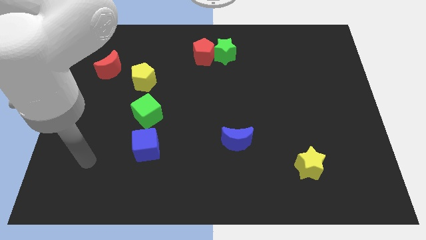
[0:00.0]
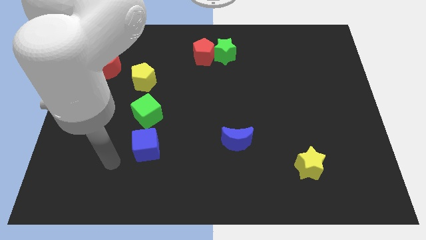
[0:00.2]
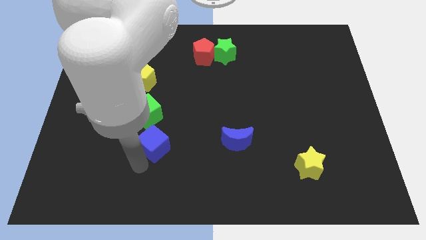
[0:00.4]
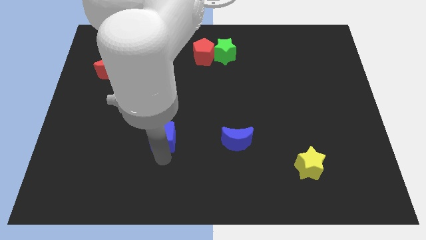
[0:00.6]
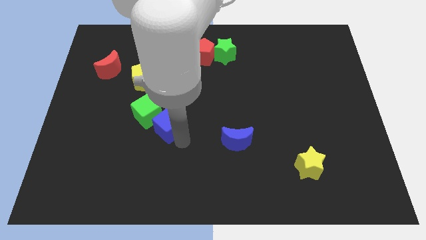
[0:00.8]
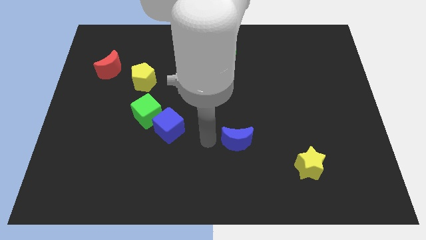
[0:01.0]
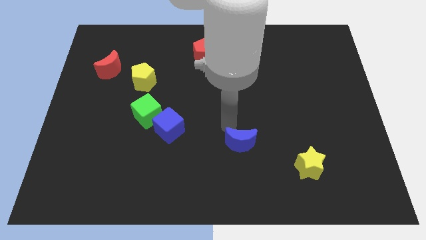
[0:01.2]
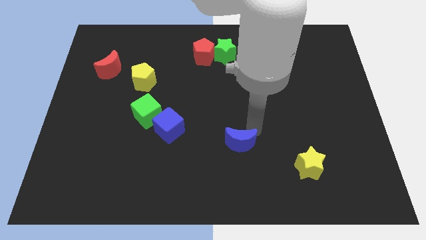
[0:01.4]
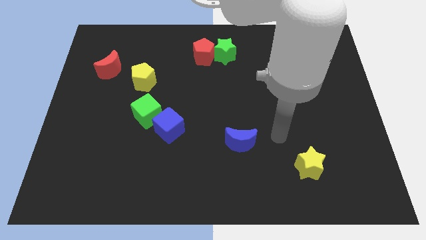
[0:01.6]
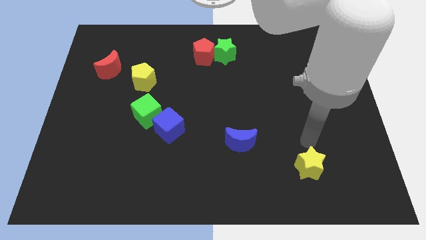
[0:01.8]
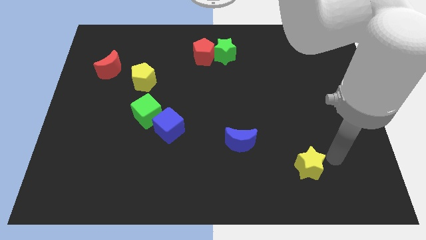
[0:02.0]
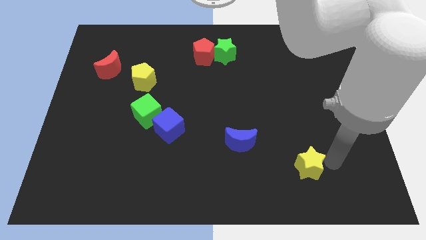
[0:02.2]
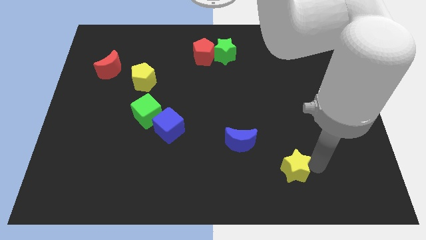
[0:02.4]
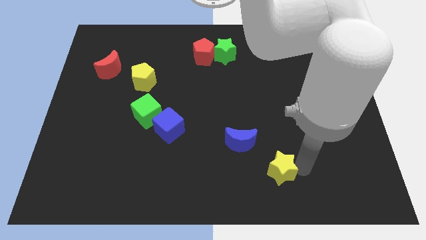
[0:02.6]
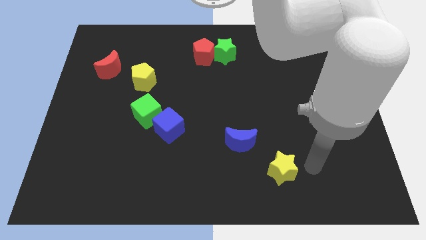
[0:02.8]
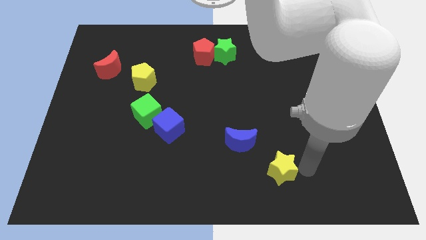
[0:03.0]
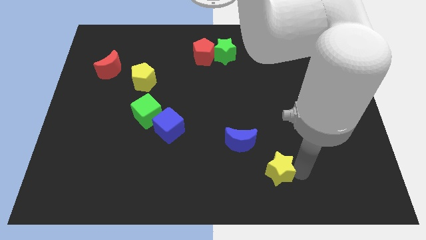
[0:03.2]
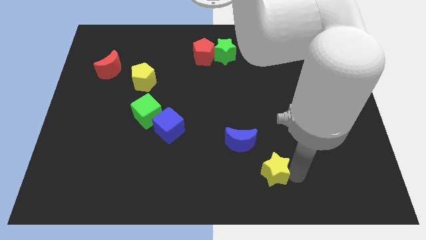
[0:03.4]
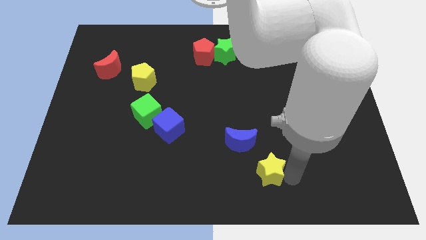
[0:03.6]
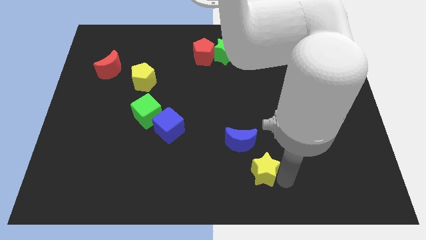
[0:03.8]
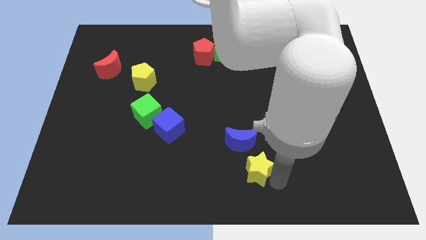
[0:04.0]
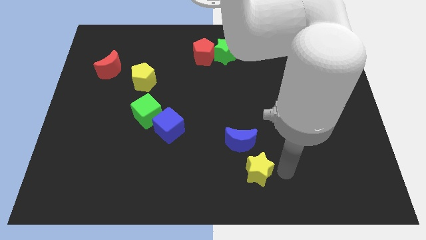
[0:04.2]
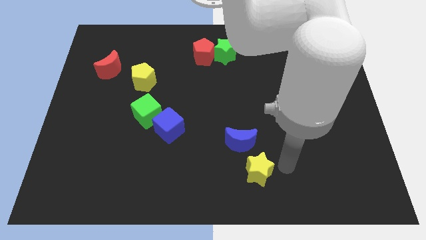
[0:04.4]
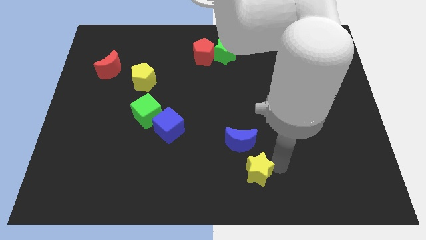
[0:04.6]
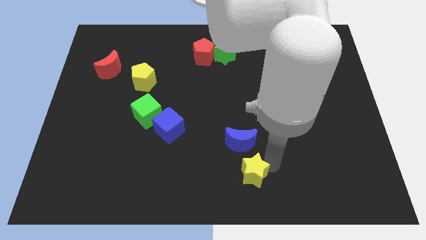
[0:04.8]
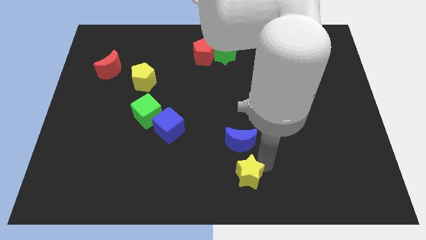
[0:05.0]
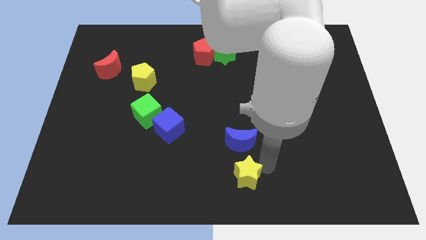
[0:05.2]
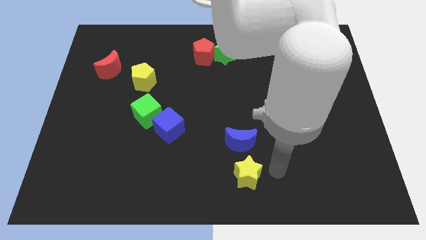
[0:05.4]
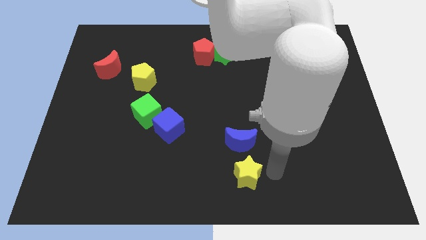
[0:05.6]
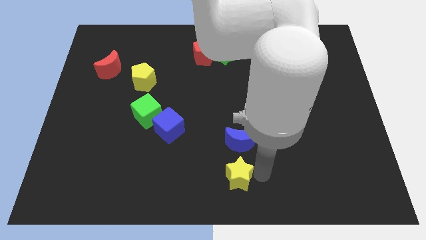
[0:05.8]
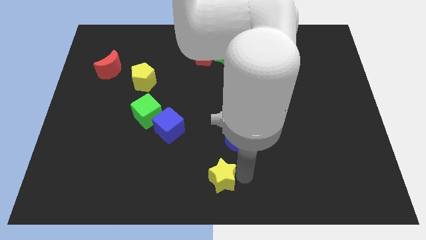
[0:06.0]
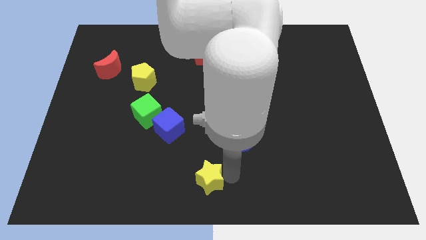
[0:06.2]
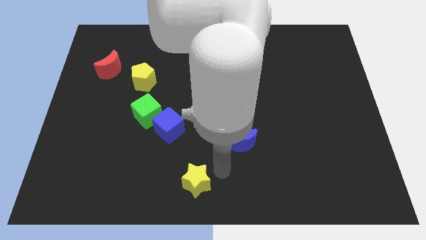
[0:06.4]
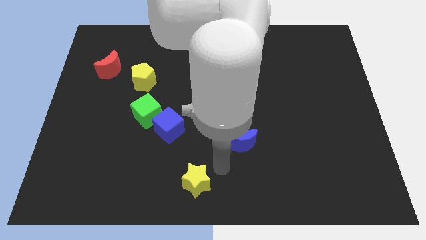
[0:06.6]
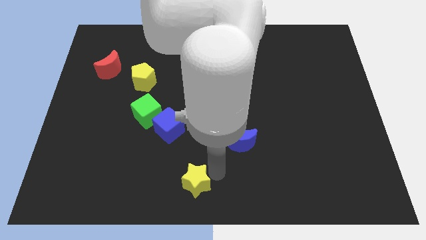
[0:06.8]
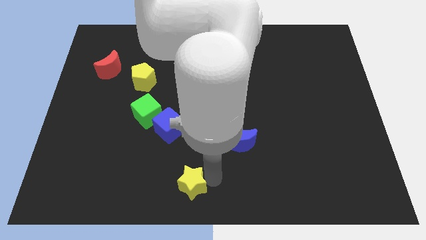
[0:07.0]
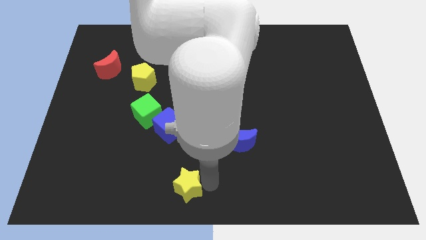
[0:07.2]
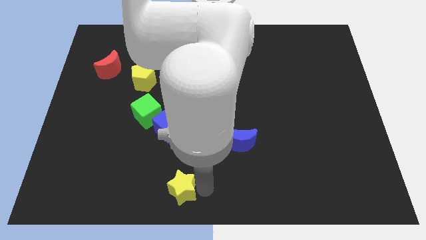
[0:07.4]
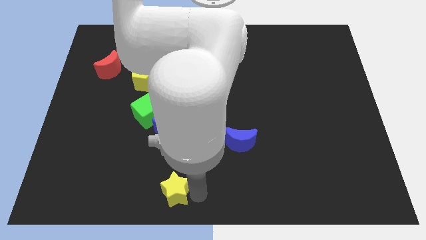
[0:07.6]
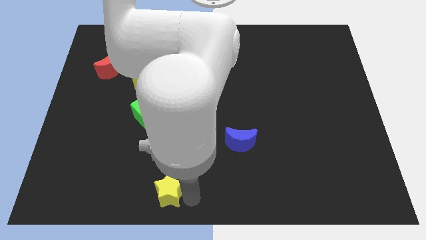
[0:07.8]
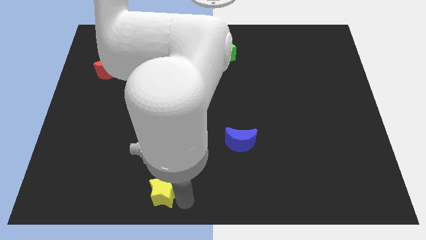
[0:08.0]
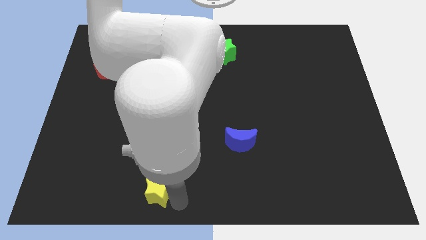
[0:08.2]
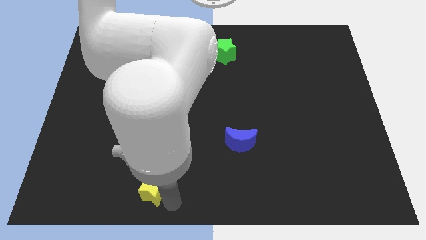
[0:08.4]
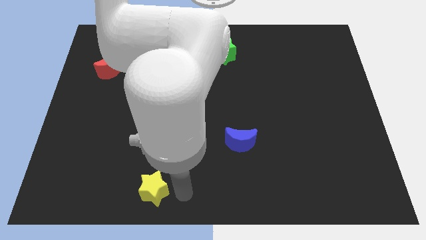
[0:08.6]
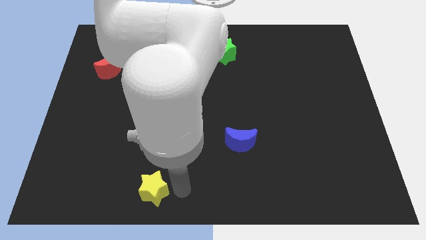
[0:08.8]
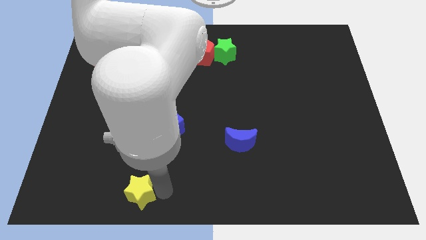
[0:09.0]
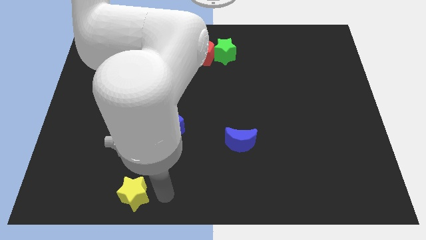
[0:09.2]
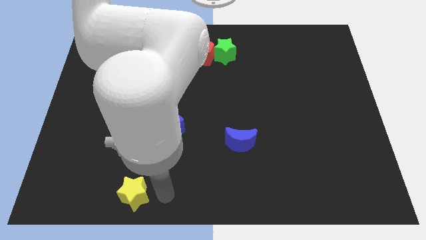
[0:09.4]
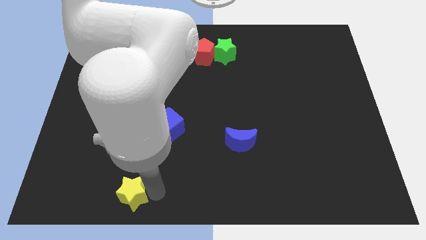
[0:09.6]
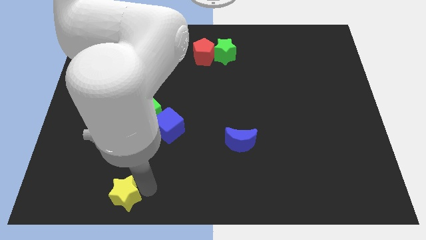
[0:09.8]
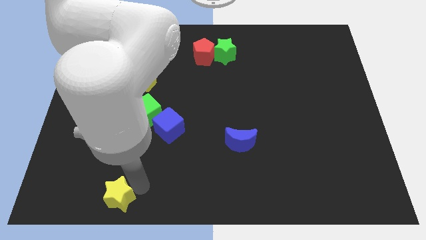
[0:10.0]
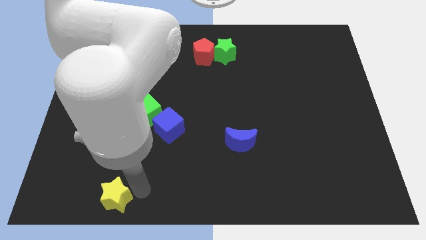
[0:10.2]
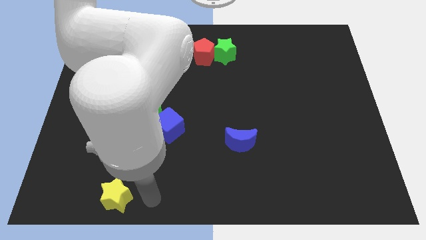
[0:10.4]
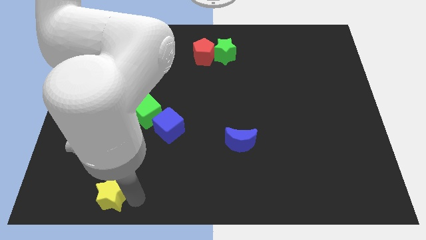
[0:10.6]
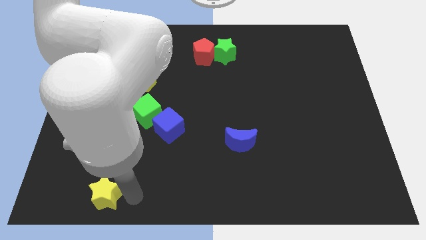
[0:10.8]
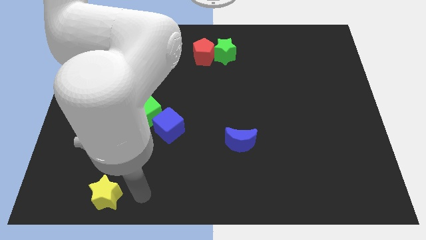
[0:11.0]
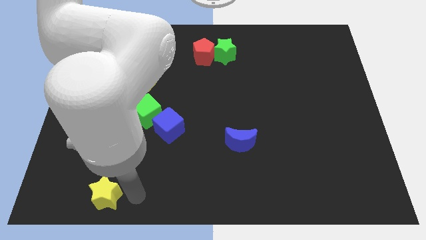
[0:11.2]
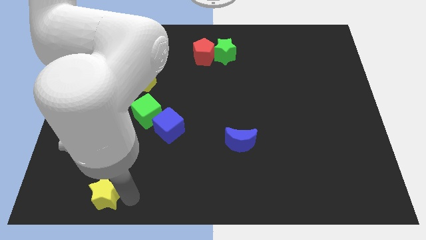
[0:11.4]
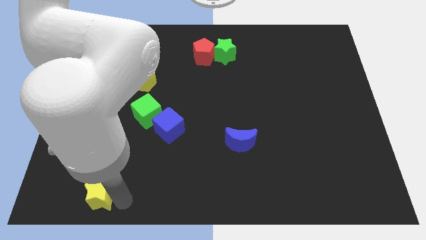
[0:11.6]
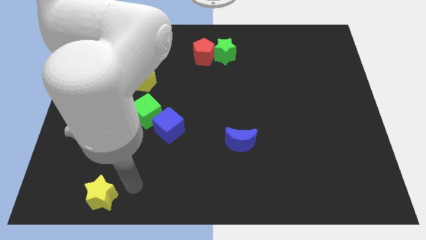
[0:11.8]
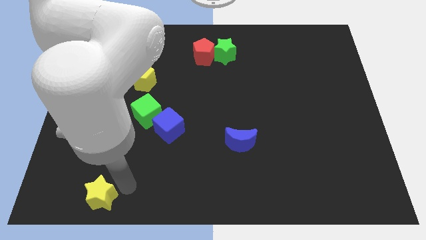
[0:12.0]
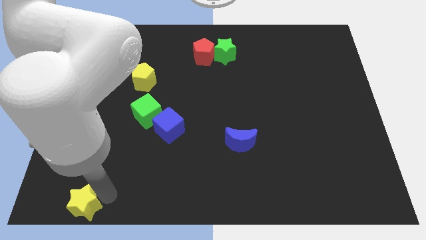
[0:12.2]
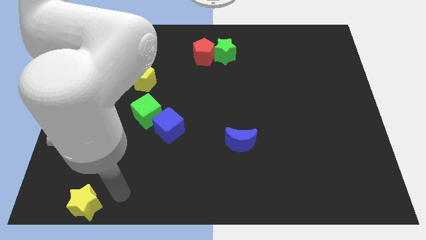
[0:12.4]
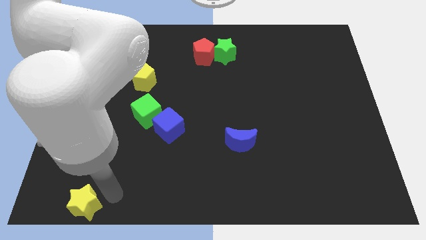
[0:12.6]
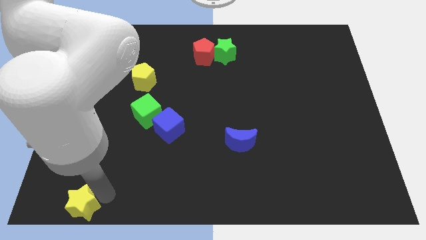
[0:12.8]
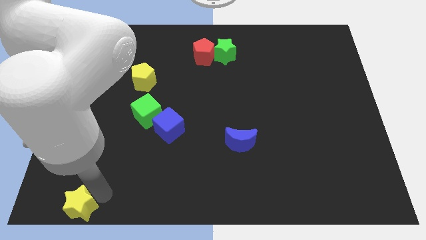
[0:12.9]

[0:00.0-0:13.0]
slide the yellow star to the bottom left corner

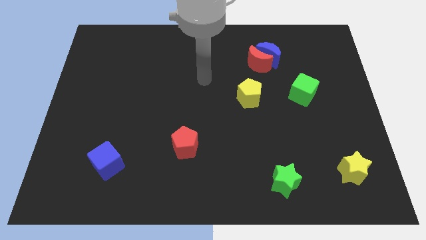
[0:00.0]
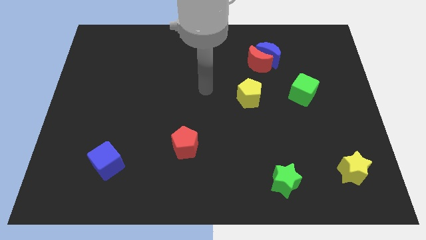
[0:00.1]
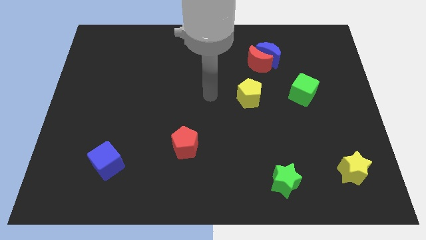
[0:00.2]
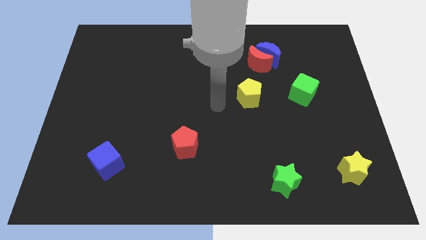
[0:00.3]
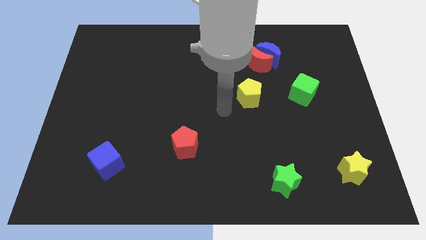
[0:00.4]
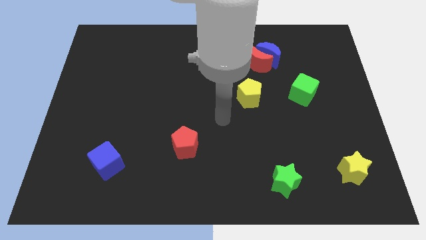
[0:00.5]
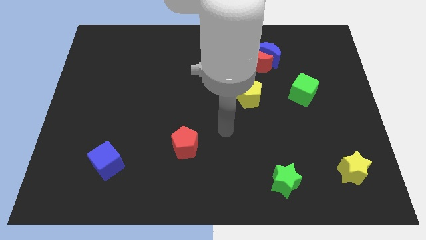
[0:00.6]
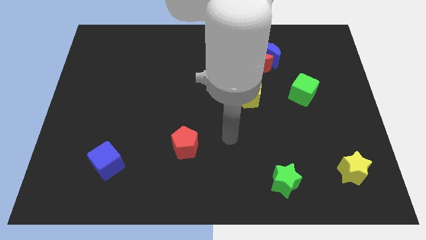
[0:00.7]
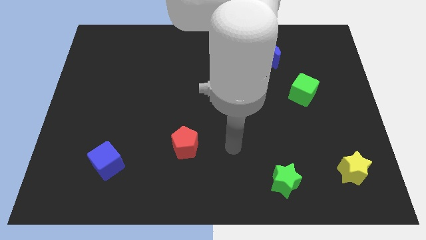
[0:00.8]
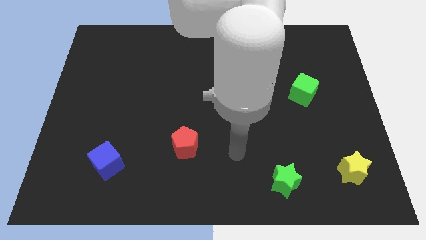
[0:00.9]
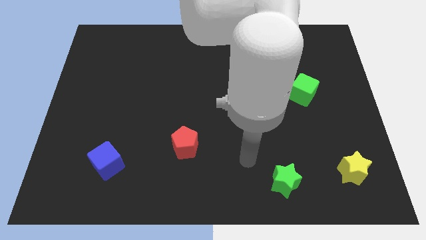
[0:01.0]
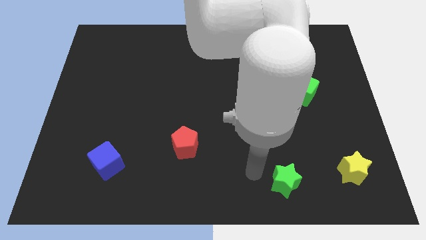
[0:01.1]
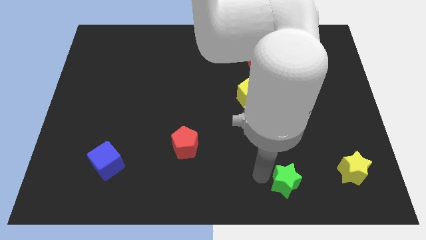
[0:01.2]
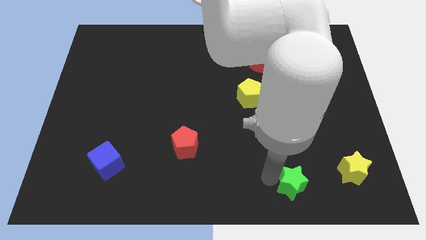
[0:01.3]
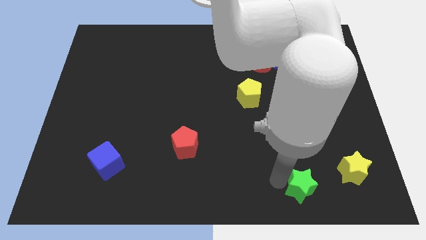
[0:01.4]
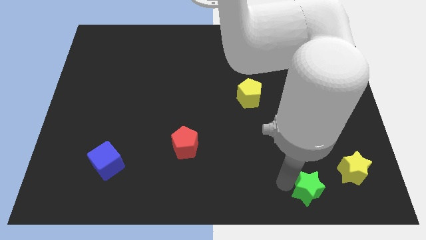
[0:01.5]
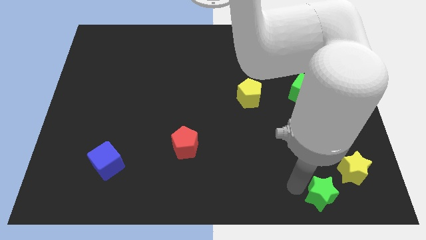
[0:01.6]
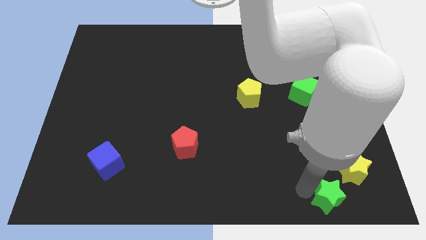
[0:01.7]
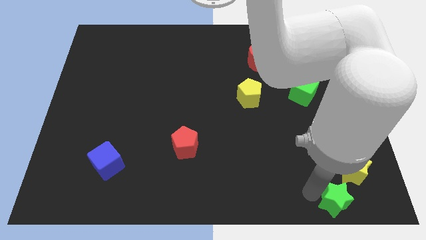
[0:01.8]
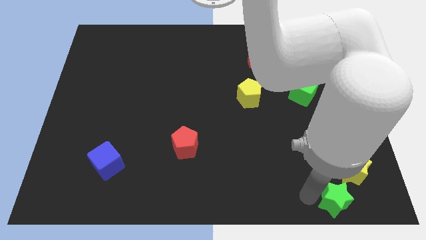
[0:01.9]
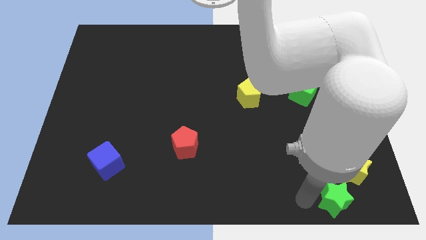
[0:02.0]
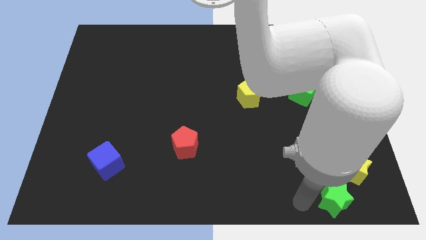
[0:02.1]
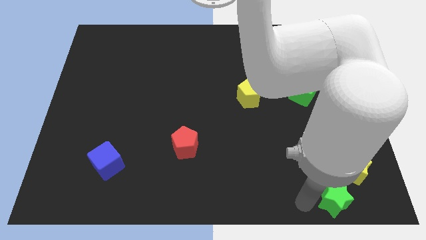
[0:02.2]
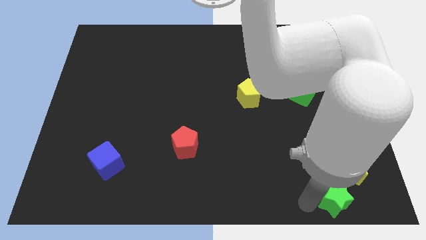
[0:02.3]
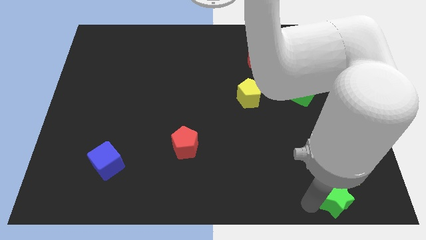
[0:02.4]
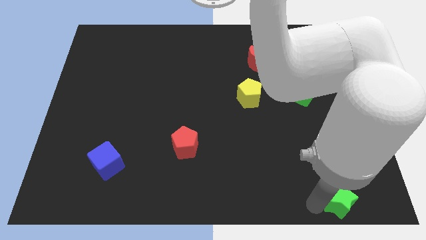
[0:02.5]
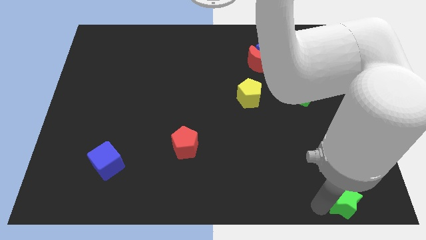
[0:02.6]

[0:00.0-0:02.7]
push the green star to the bottom right
